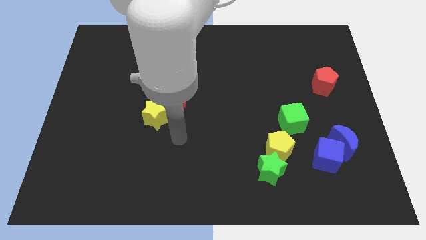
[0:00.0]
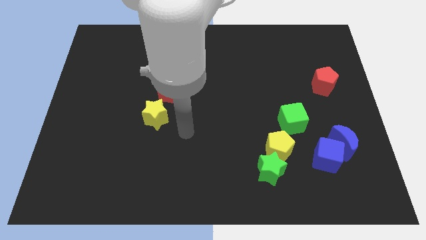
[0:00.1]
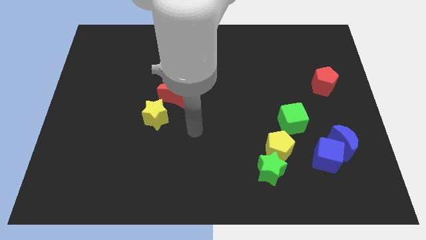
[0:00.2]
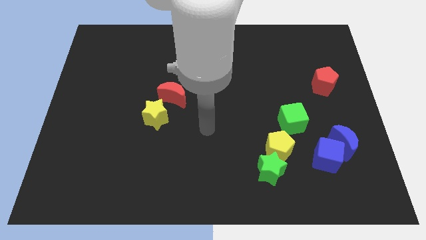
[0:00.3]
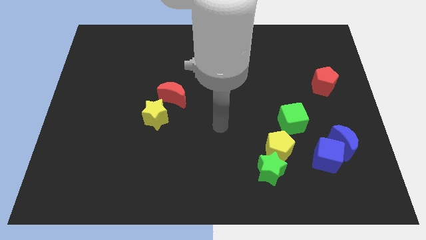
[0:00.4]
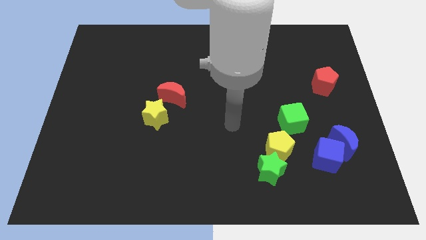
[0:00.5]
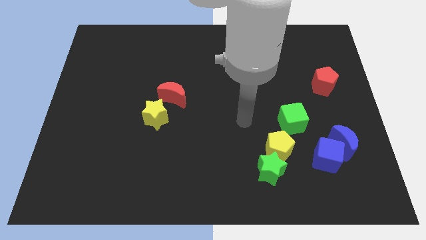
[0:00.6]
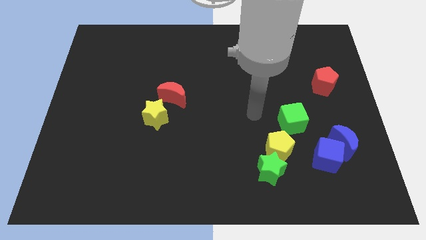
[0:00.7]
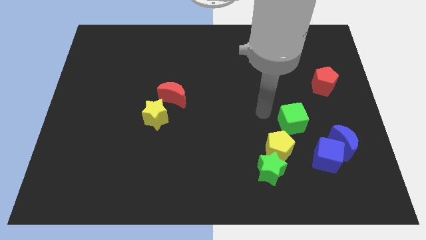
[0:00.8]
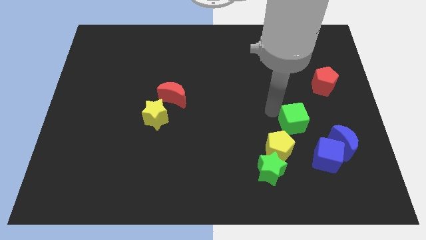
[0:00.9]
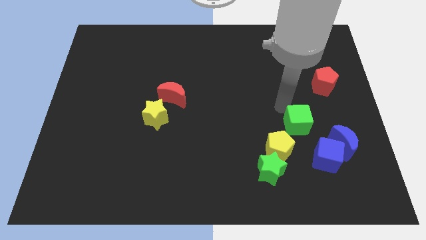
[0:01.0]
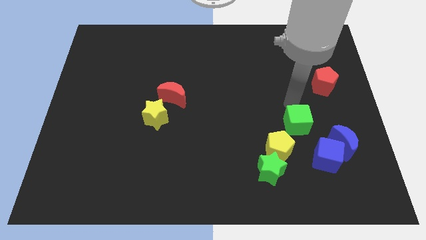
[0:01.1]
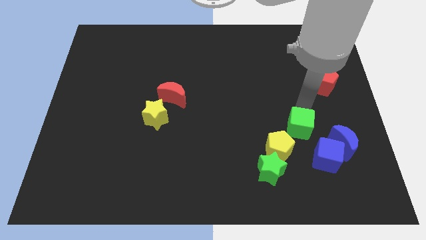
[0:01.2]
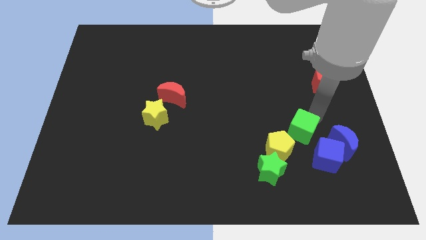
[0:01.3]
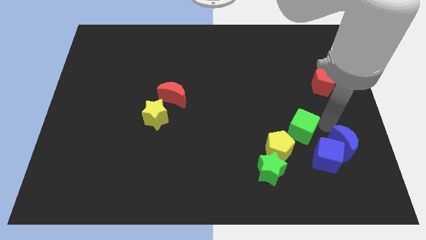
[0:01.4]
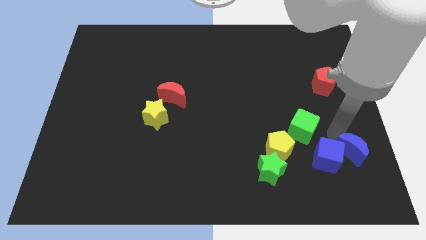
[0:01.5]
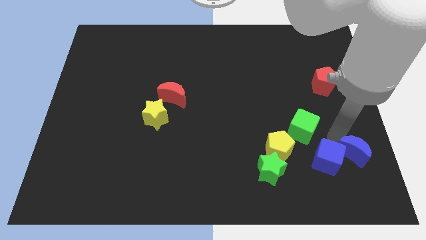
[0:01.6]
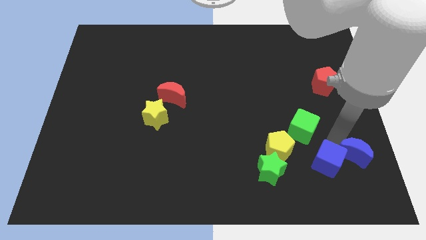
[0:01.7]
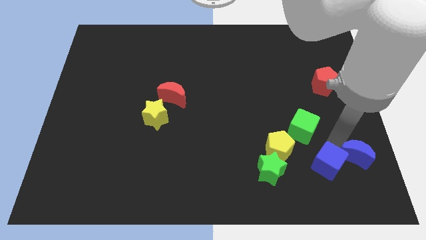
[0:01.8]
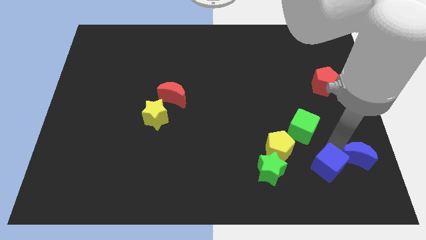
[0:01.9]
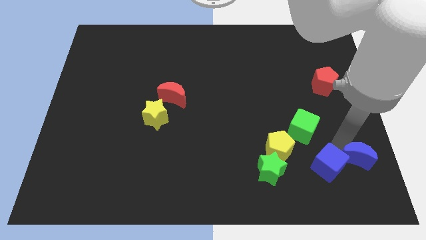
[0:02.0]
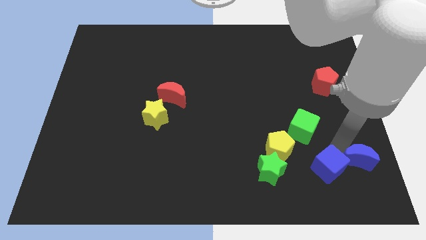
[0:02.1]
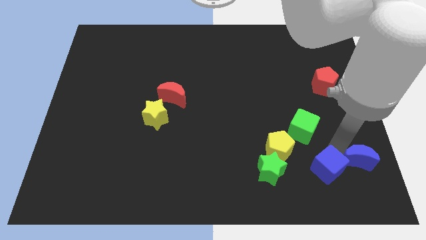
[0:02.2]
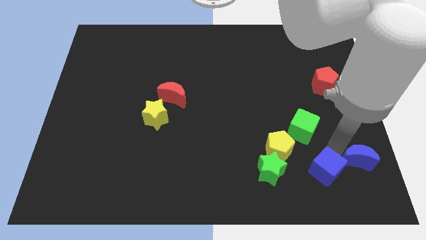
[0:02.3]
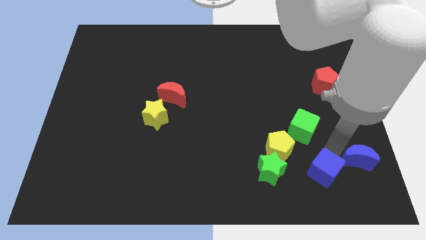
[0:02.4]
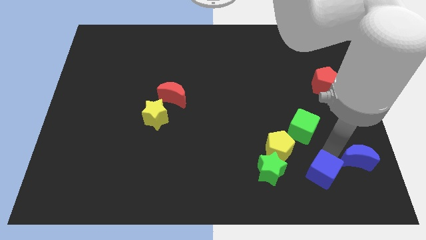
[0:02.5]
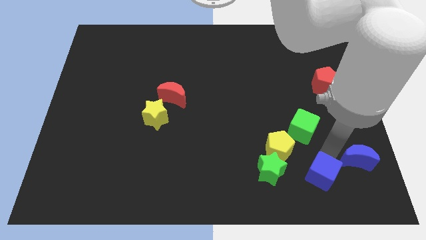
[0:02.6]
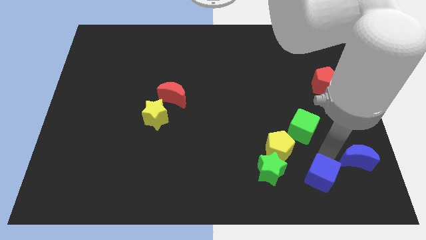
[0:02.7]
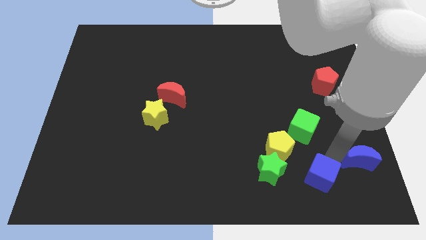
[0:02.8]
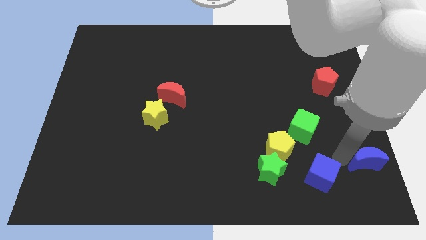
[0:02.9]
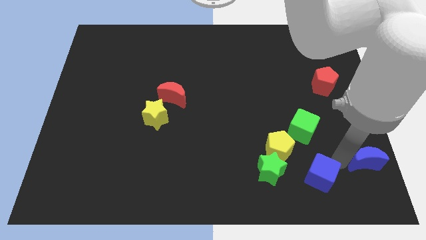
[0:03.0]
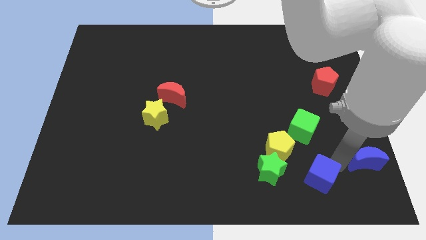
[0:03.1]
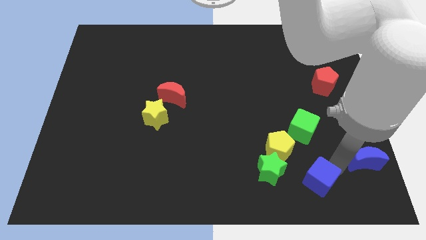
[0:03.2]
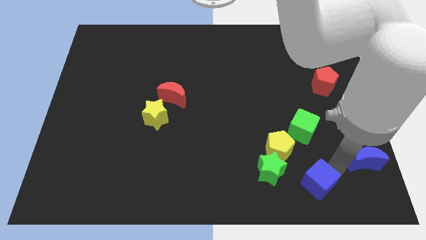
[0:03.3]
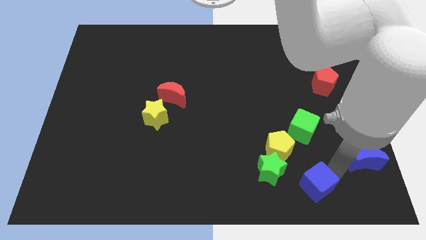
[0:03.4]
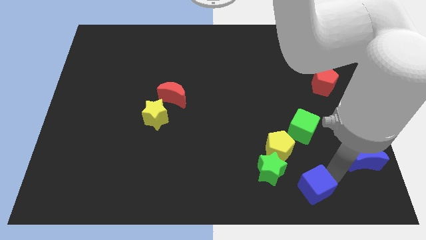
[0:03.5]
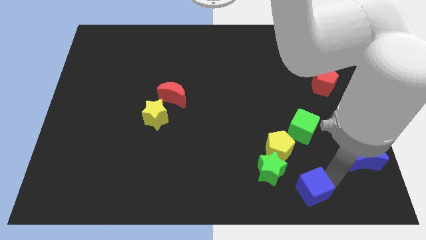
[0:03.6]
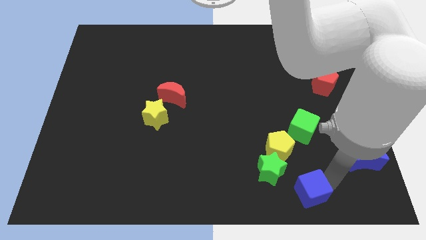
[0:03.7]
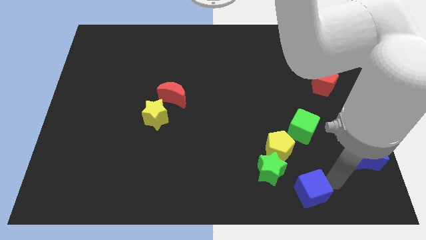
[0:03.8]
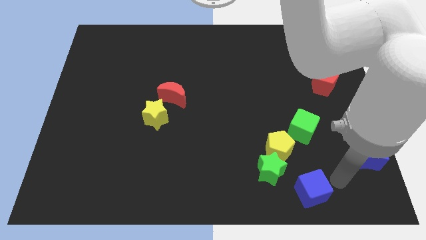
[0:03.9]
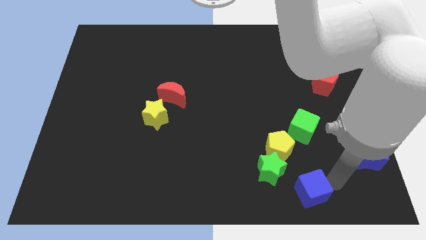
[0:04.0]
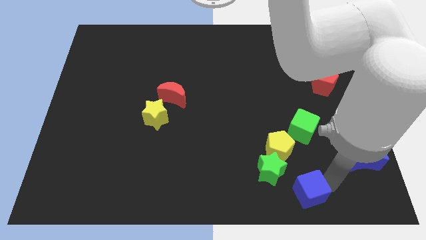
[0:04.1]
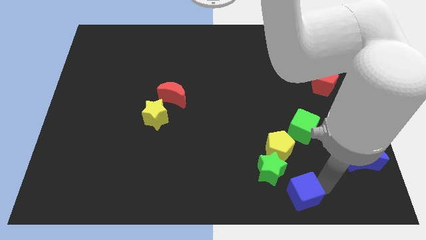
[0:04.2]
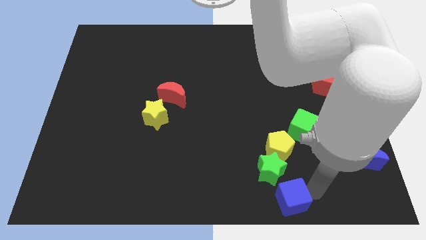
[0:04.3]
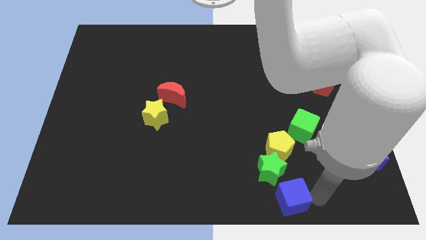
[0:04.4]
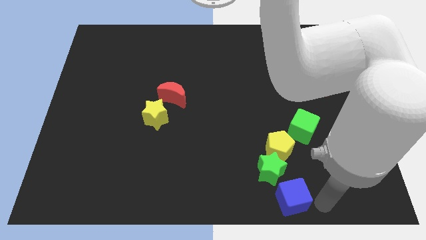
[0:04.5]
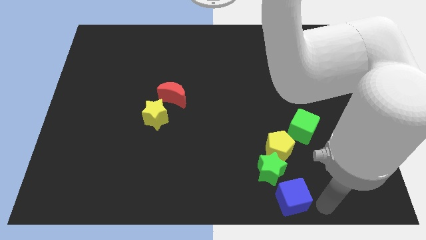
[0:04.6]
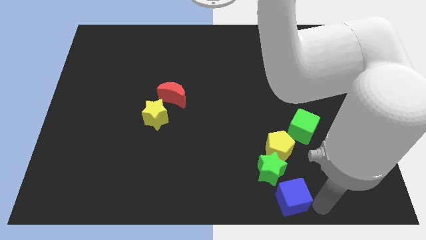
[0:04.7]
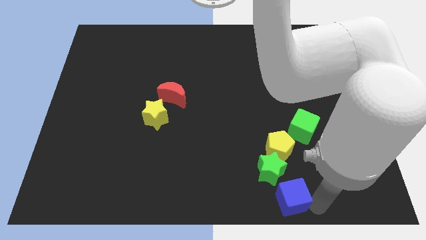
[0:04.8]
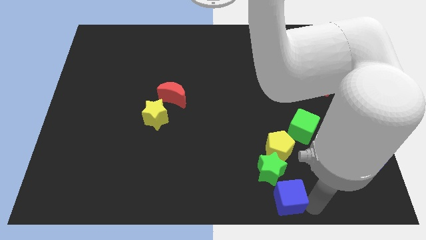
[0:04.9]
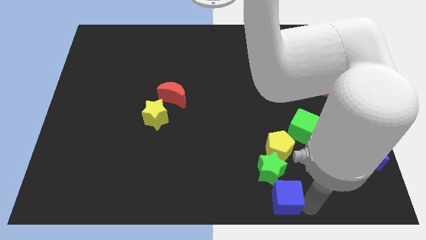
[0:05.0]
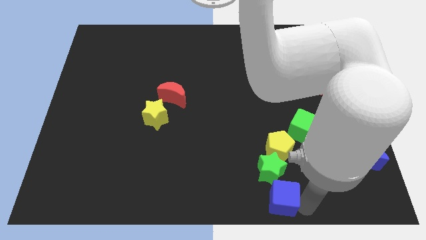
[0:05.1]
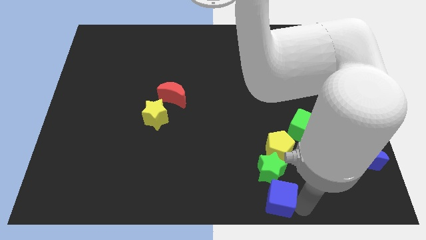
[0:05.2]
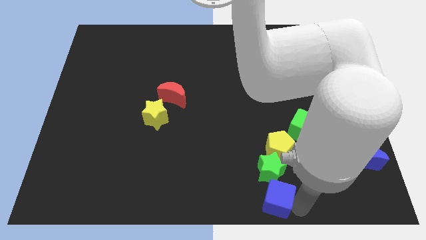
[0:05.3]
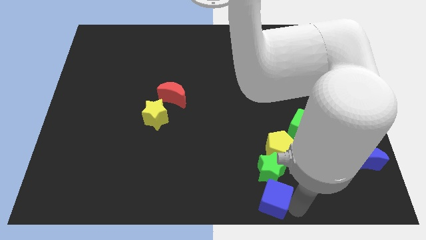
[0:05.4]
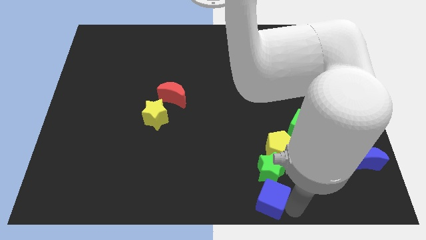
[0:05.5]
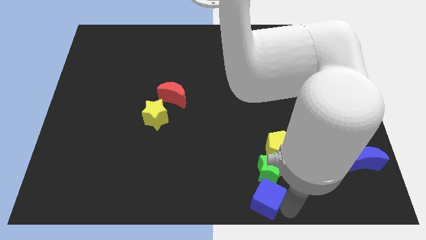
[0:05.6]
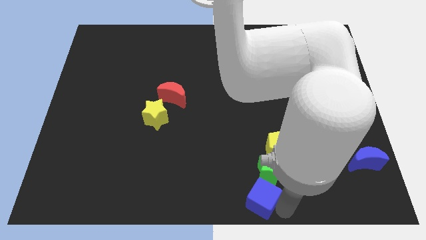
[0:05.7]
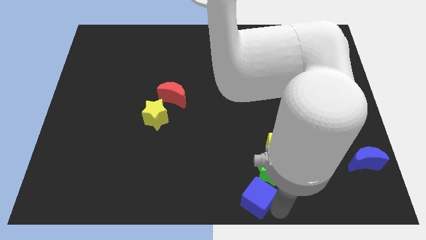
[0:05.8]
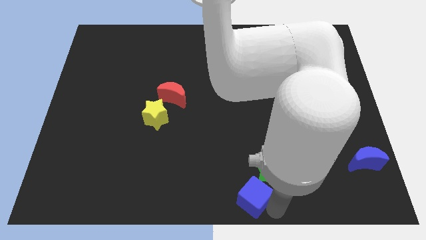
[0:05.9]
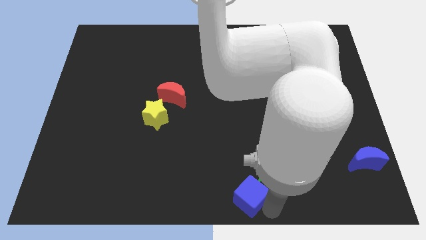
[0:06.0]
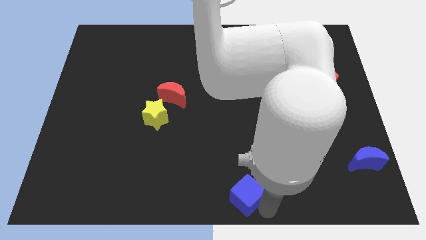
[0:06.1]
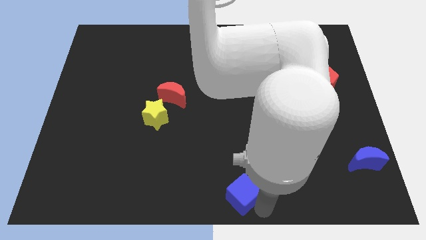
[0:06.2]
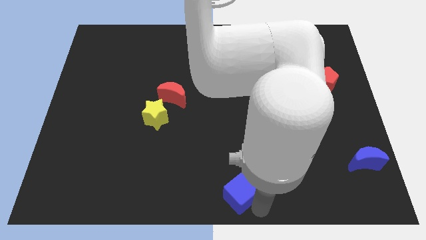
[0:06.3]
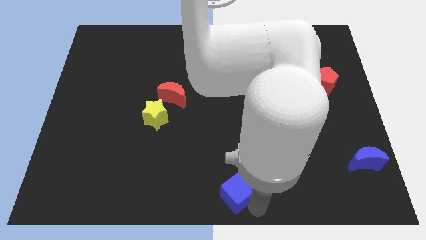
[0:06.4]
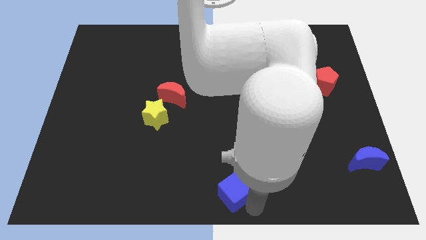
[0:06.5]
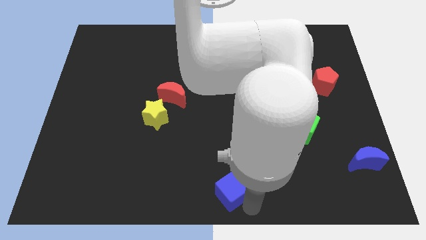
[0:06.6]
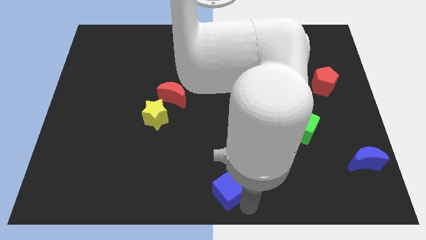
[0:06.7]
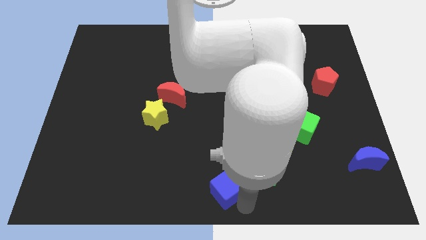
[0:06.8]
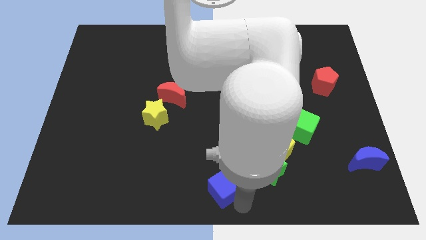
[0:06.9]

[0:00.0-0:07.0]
push the blue cube to the left

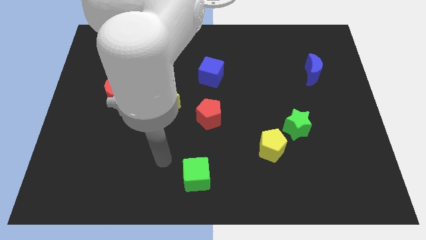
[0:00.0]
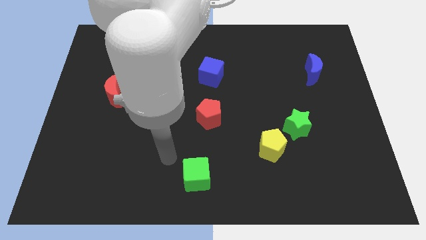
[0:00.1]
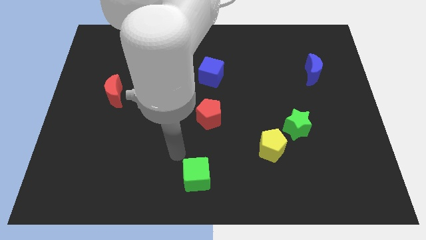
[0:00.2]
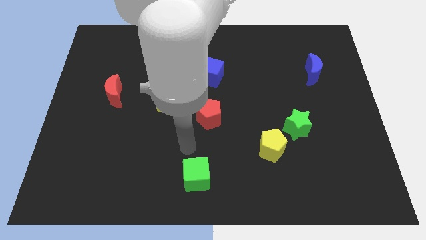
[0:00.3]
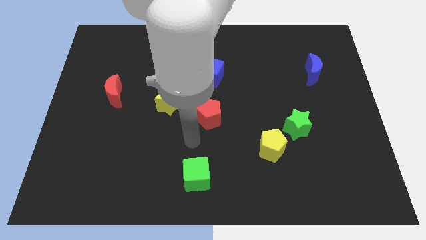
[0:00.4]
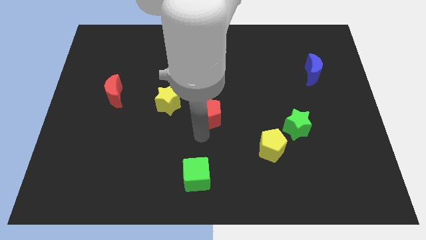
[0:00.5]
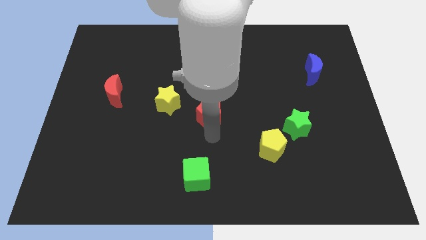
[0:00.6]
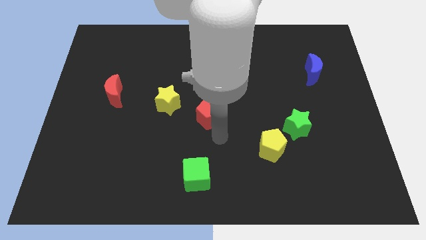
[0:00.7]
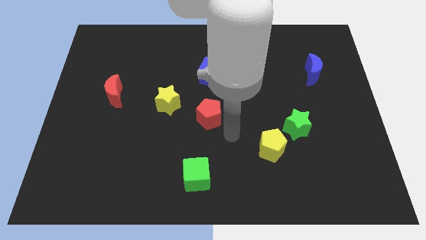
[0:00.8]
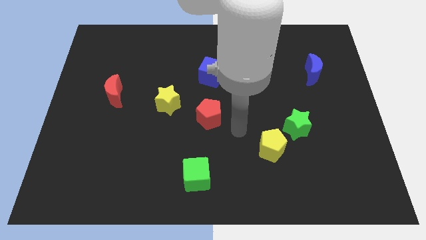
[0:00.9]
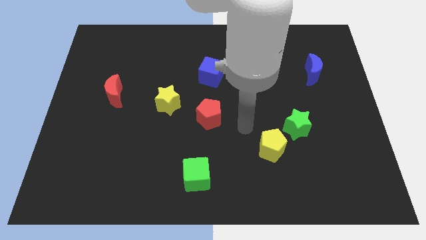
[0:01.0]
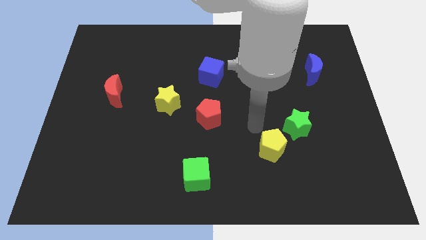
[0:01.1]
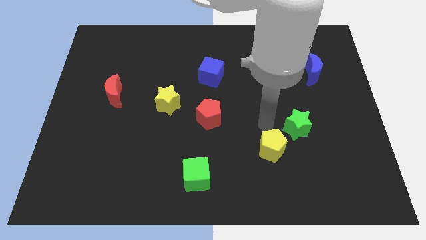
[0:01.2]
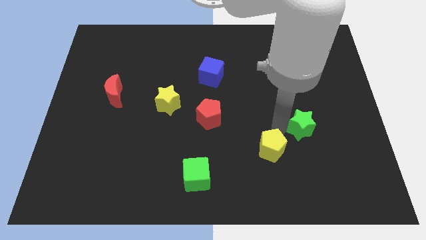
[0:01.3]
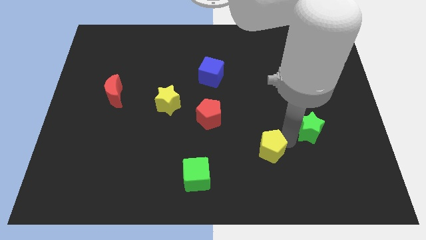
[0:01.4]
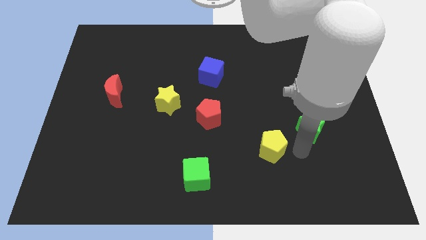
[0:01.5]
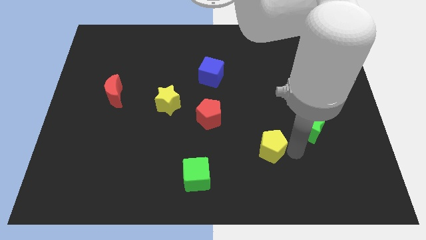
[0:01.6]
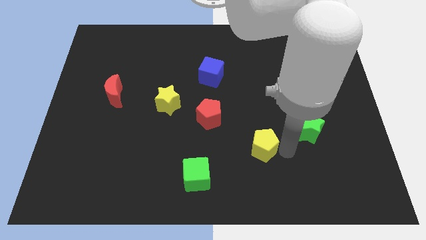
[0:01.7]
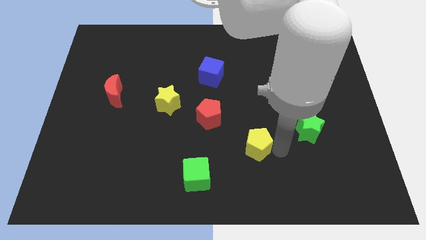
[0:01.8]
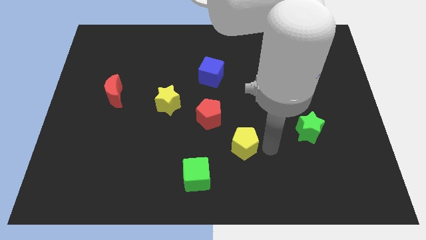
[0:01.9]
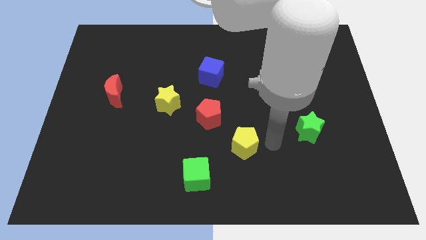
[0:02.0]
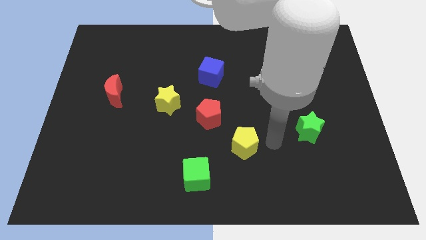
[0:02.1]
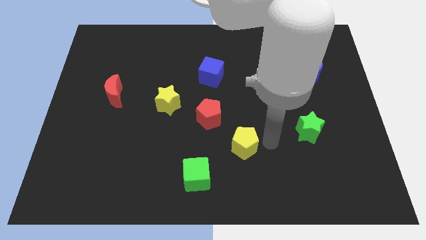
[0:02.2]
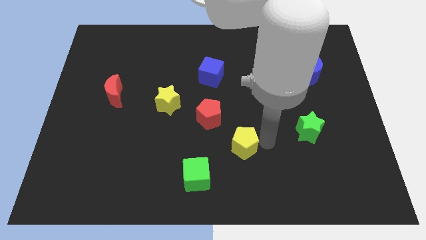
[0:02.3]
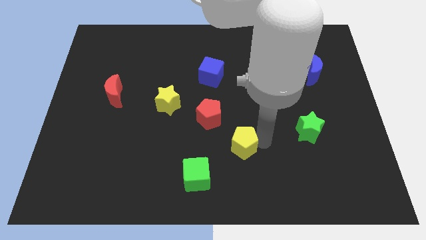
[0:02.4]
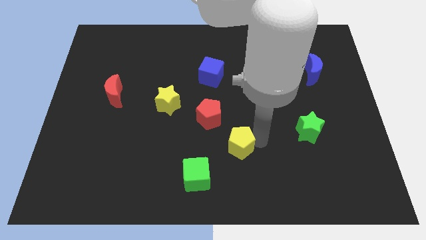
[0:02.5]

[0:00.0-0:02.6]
slide the yellow pentagon slightly to the left
